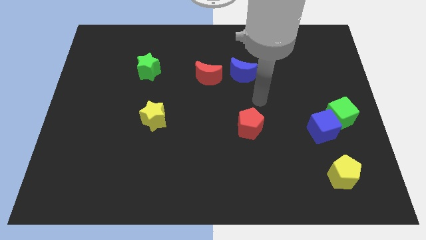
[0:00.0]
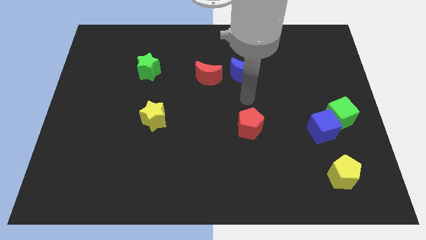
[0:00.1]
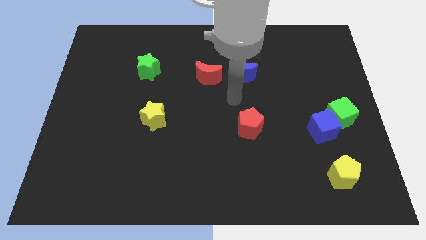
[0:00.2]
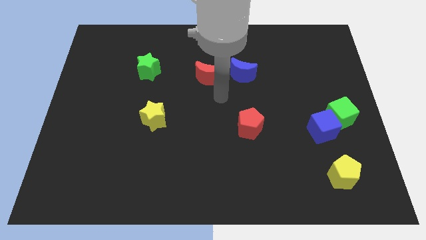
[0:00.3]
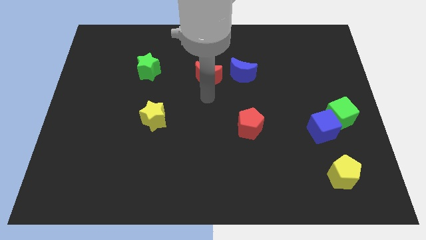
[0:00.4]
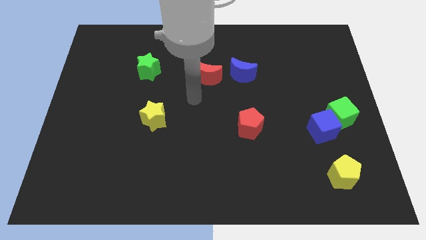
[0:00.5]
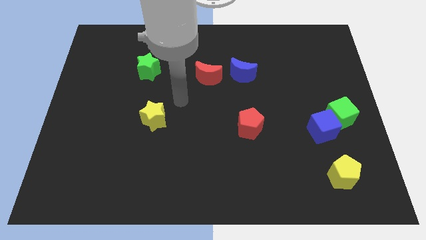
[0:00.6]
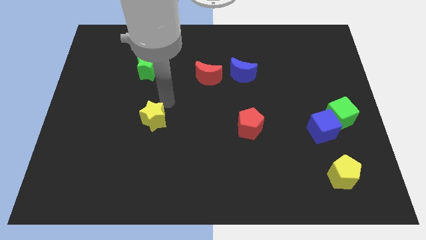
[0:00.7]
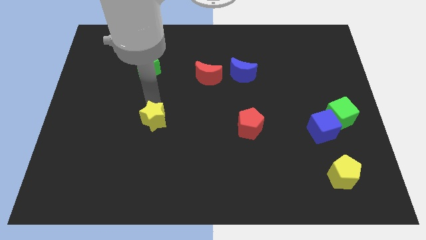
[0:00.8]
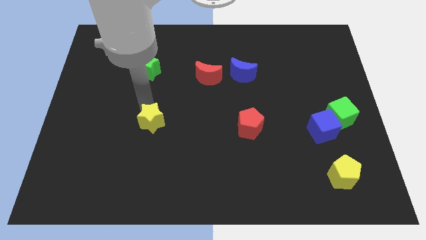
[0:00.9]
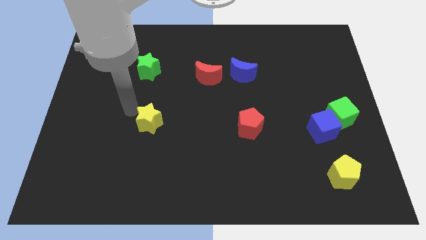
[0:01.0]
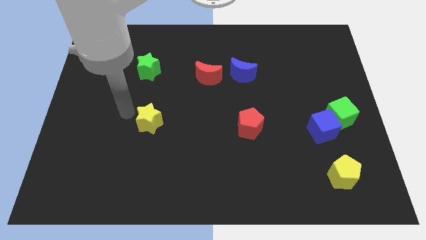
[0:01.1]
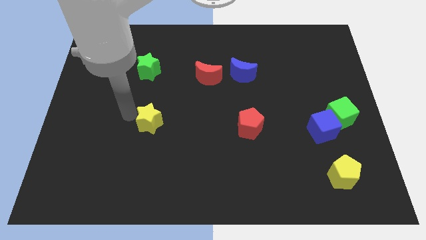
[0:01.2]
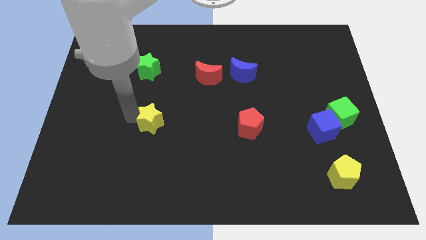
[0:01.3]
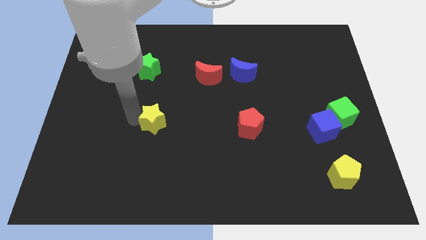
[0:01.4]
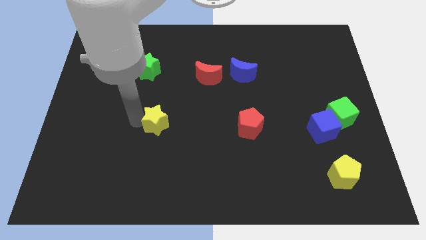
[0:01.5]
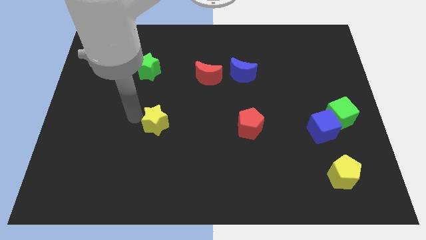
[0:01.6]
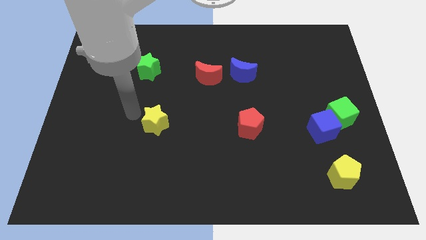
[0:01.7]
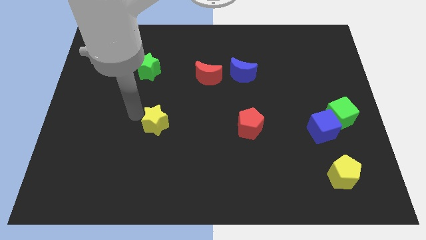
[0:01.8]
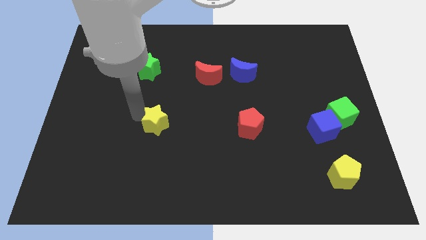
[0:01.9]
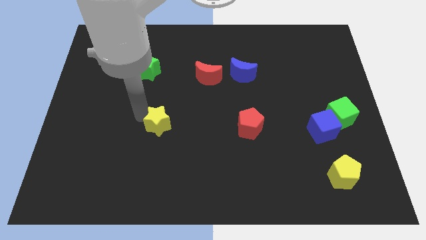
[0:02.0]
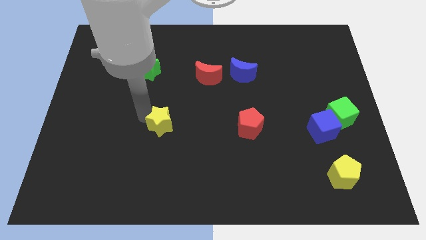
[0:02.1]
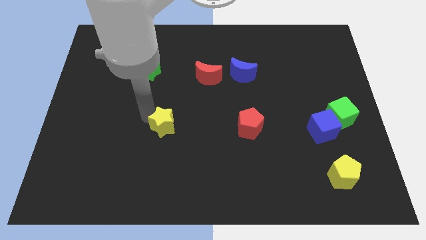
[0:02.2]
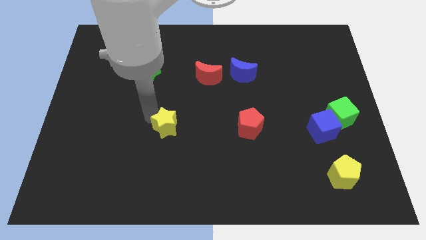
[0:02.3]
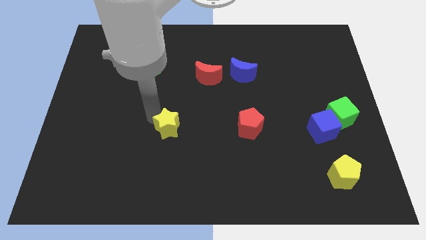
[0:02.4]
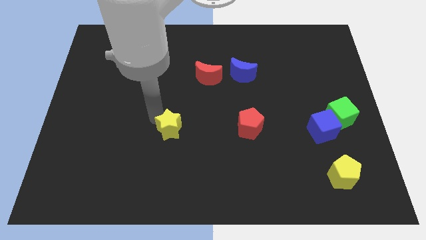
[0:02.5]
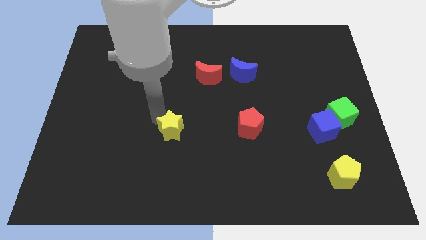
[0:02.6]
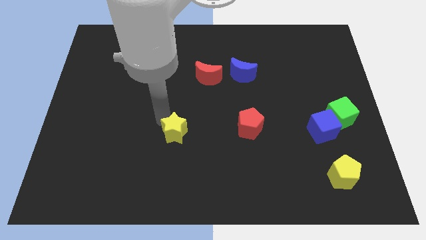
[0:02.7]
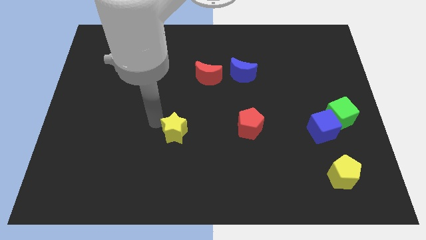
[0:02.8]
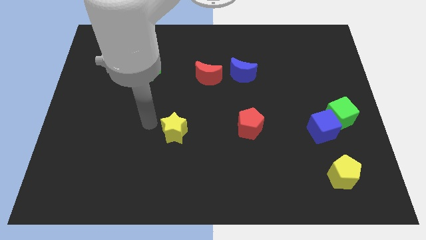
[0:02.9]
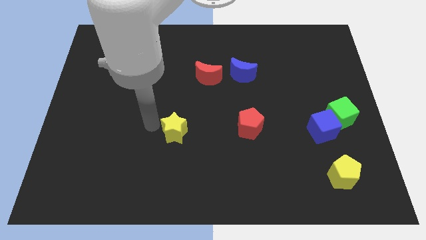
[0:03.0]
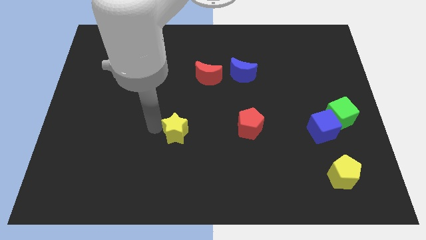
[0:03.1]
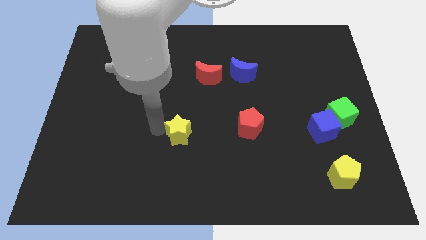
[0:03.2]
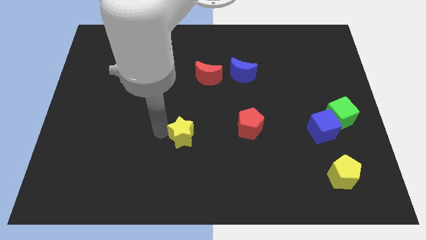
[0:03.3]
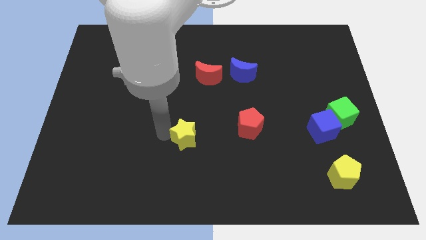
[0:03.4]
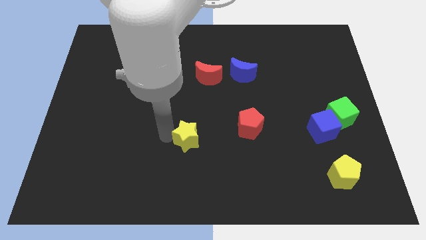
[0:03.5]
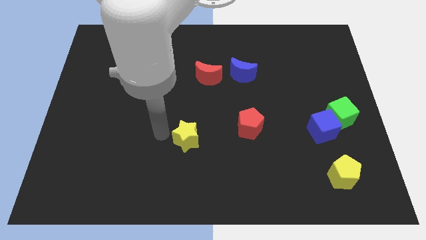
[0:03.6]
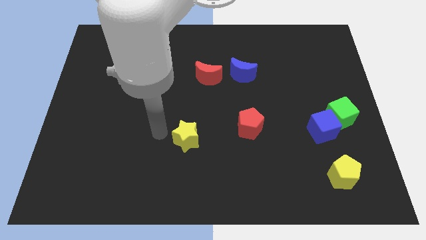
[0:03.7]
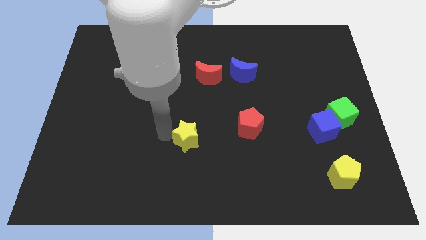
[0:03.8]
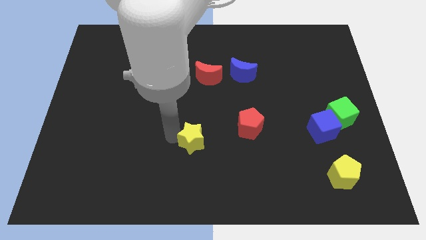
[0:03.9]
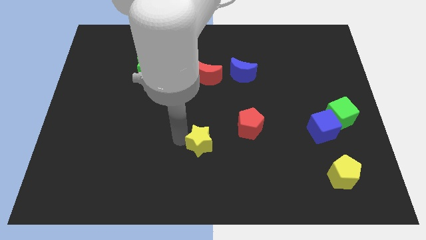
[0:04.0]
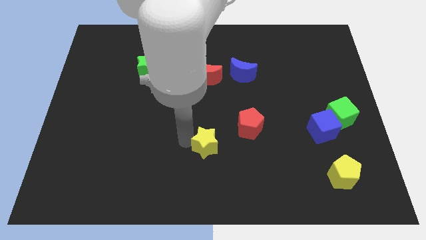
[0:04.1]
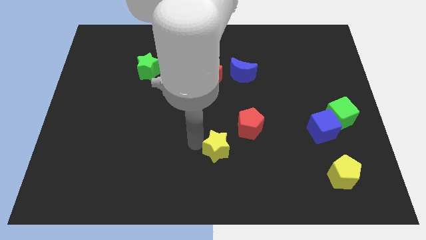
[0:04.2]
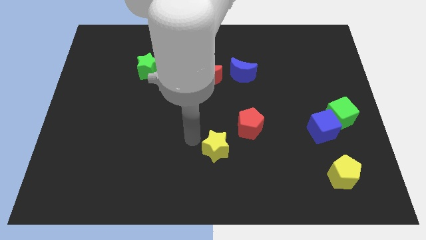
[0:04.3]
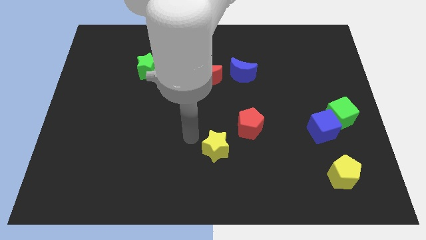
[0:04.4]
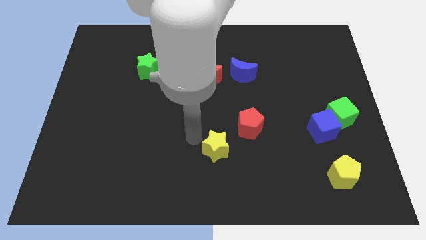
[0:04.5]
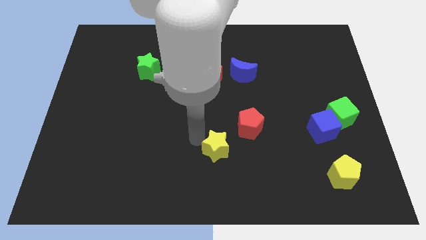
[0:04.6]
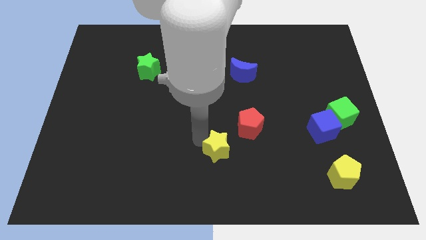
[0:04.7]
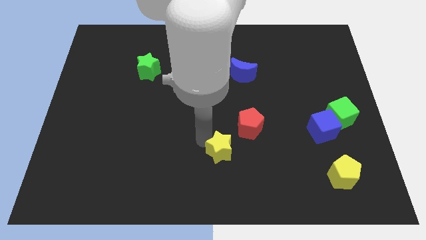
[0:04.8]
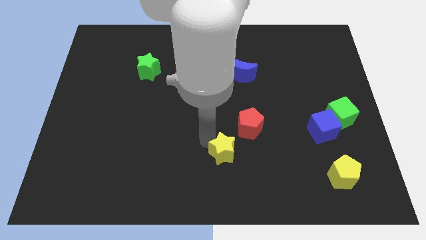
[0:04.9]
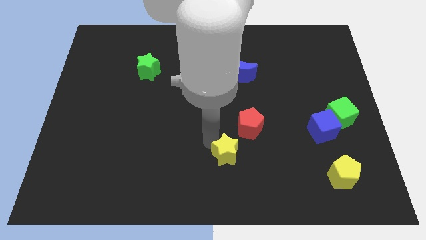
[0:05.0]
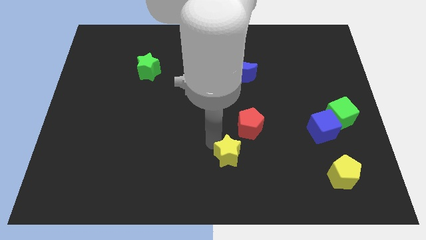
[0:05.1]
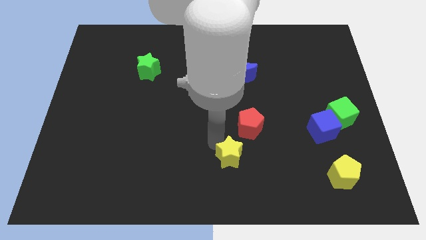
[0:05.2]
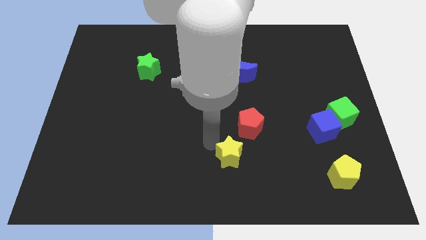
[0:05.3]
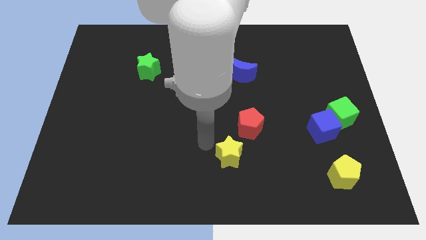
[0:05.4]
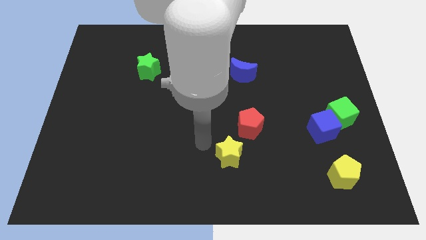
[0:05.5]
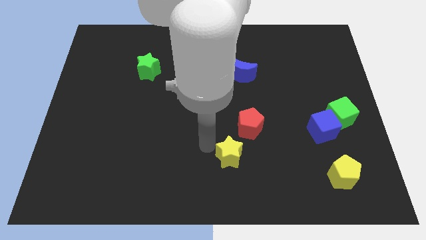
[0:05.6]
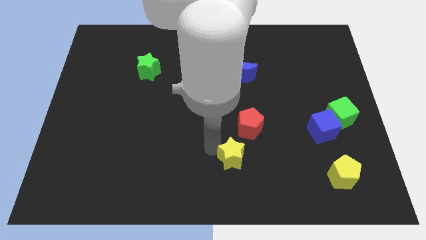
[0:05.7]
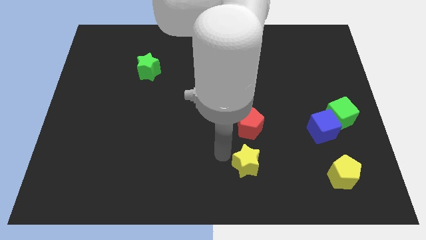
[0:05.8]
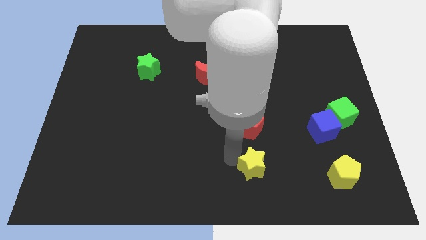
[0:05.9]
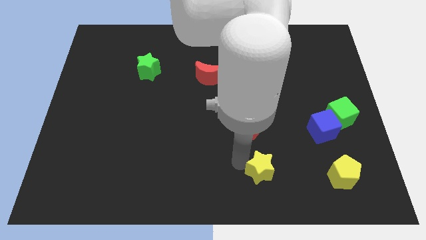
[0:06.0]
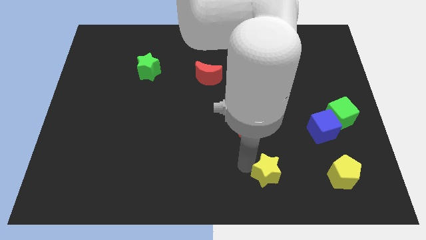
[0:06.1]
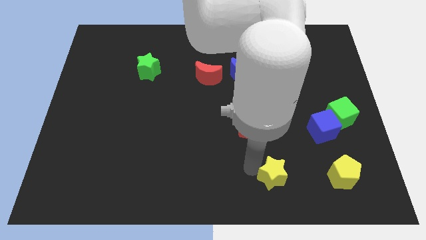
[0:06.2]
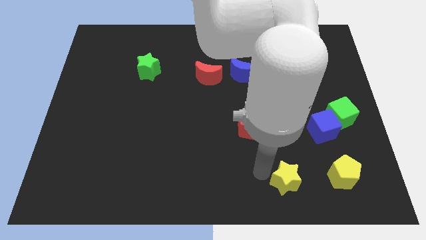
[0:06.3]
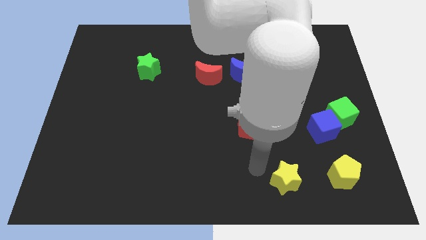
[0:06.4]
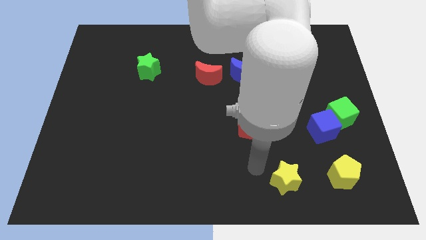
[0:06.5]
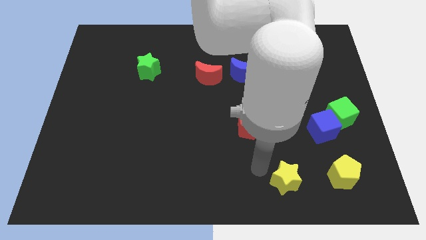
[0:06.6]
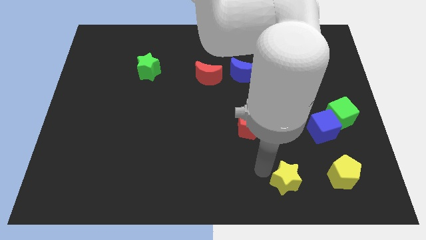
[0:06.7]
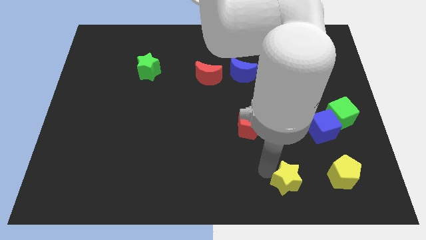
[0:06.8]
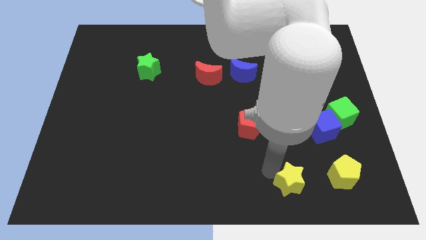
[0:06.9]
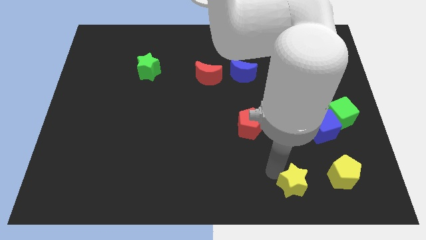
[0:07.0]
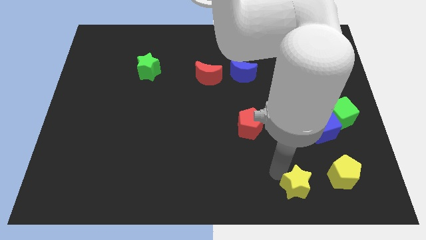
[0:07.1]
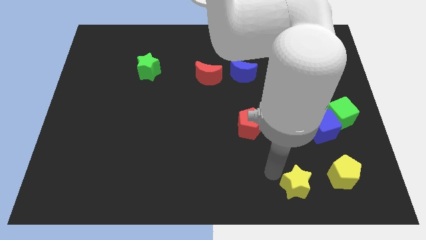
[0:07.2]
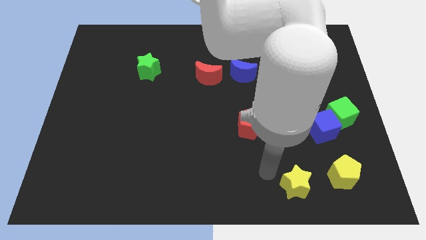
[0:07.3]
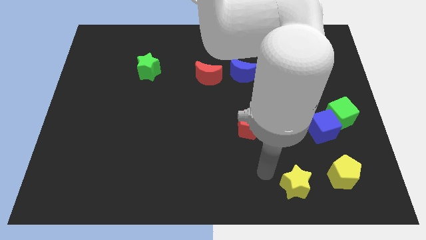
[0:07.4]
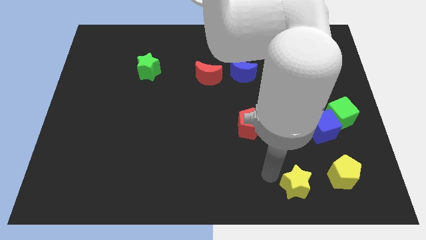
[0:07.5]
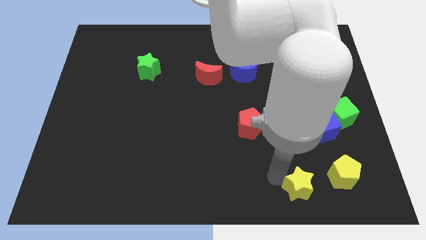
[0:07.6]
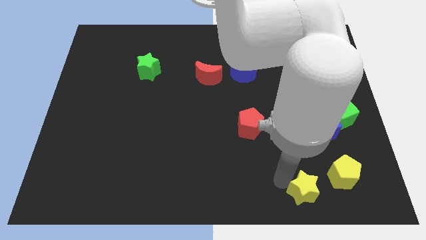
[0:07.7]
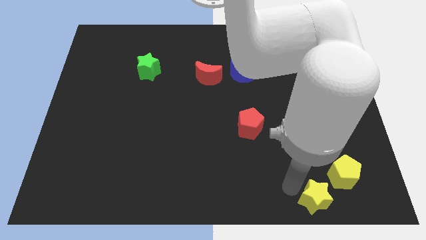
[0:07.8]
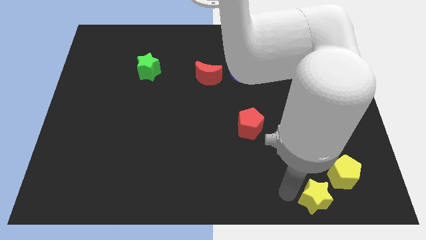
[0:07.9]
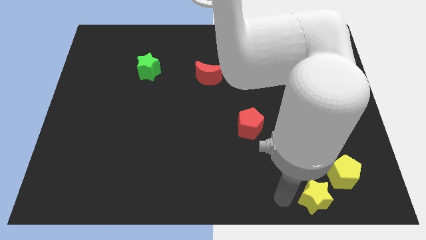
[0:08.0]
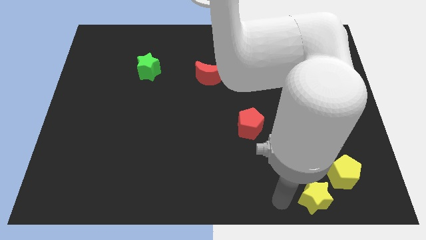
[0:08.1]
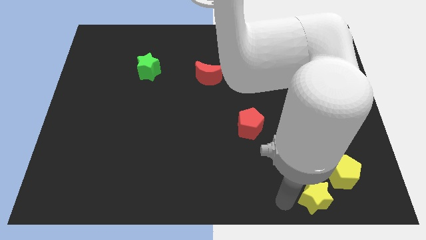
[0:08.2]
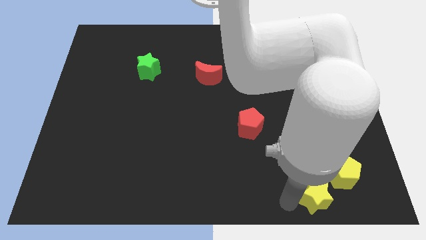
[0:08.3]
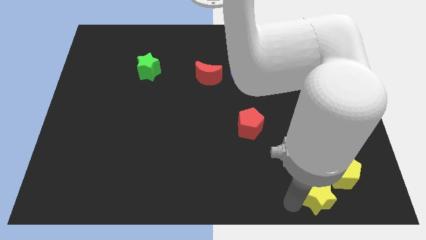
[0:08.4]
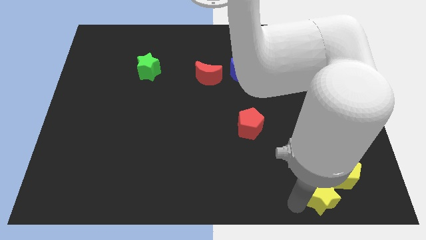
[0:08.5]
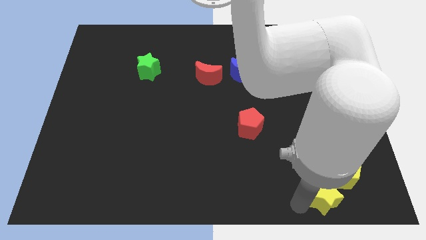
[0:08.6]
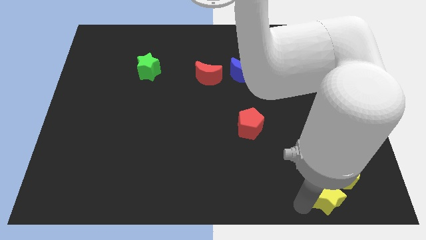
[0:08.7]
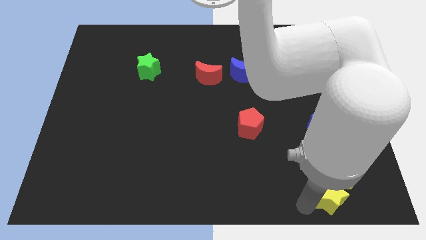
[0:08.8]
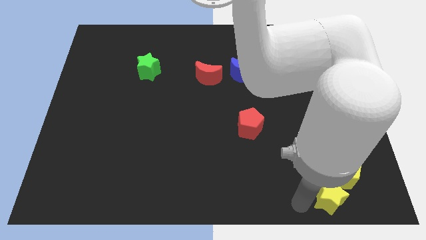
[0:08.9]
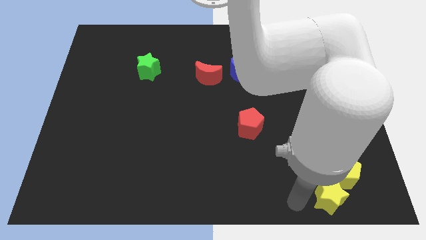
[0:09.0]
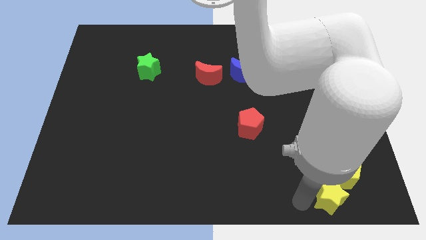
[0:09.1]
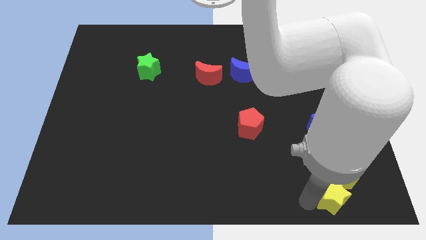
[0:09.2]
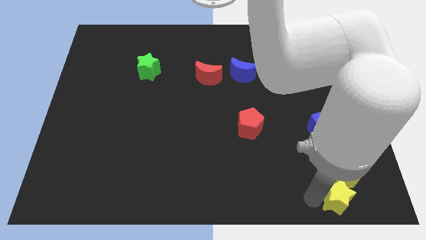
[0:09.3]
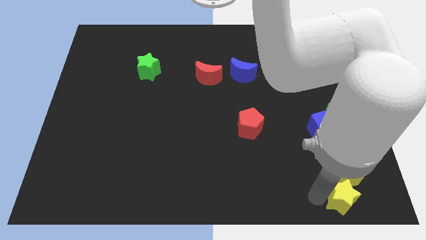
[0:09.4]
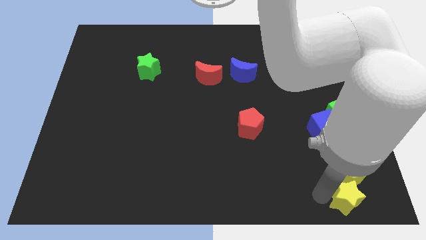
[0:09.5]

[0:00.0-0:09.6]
put the yellow star to the bottom right corner
